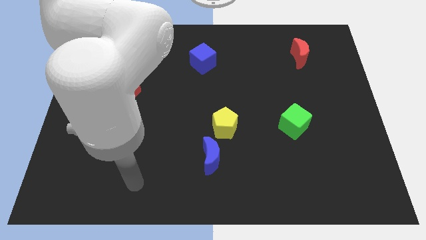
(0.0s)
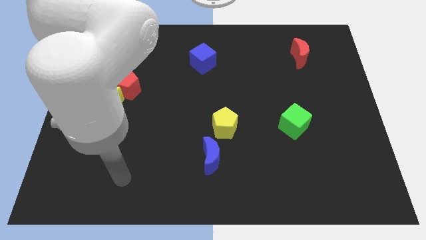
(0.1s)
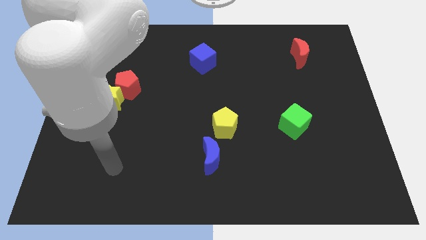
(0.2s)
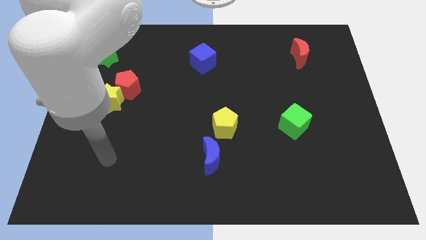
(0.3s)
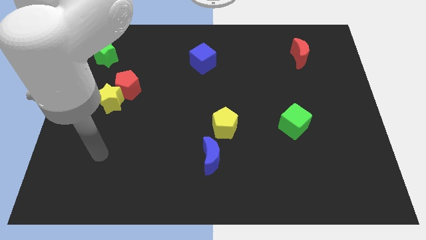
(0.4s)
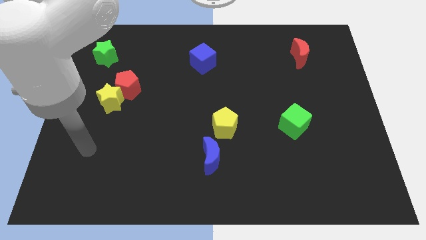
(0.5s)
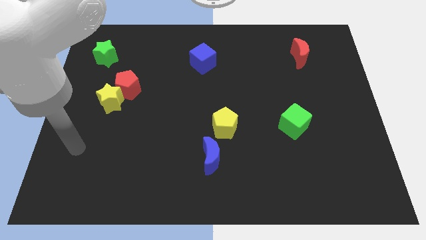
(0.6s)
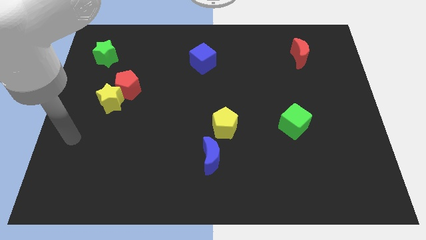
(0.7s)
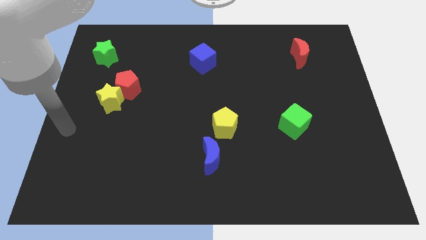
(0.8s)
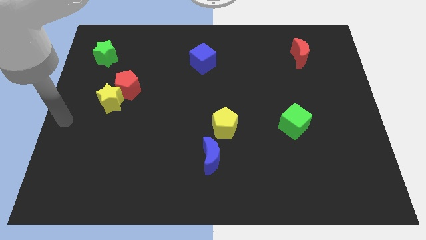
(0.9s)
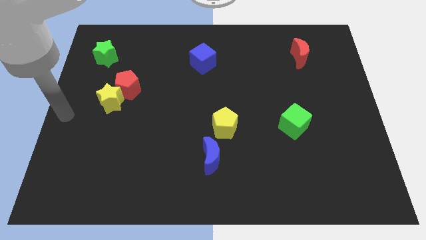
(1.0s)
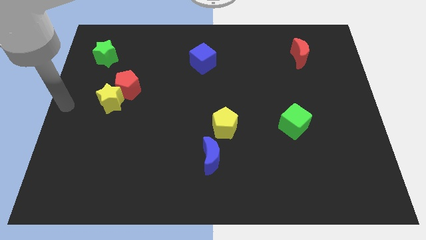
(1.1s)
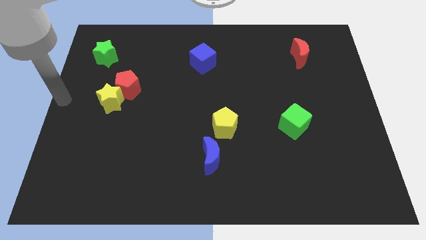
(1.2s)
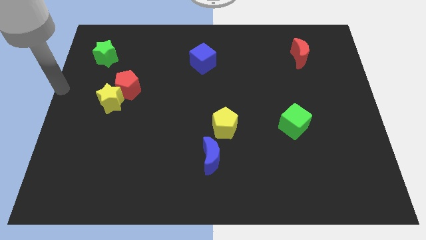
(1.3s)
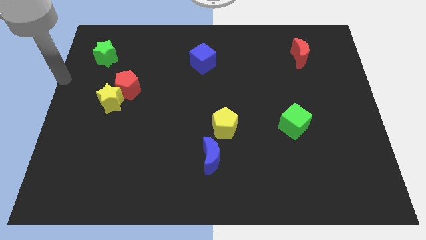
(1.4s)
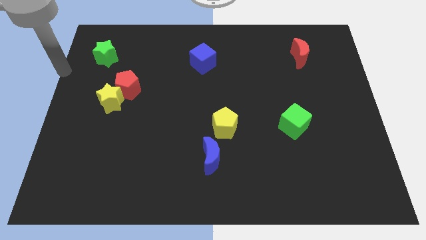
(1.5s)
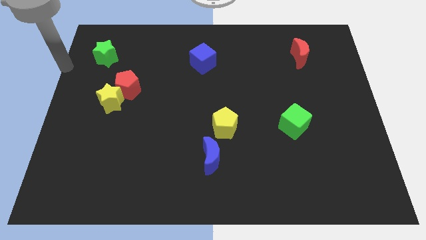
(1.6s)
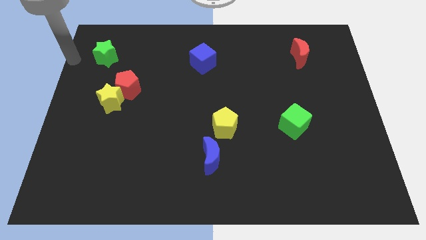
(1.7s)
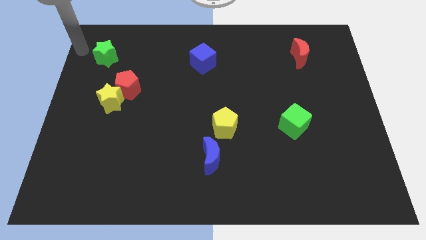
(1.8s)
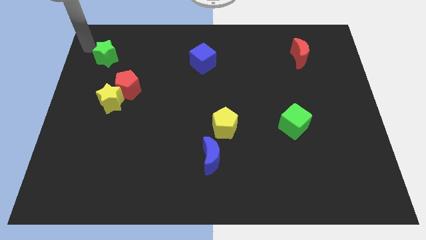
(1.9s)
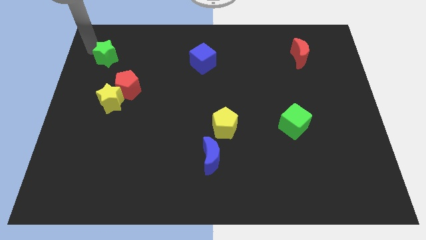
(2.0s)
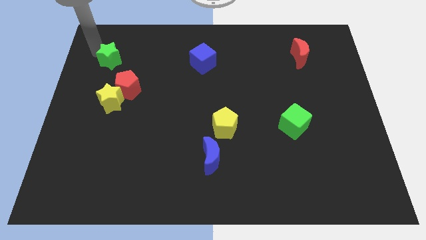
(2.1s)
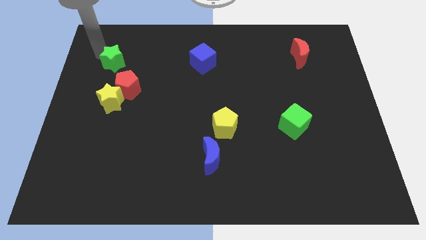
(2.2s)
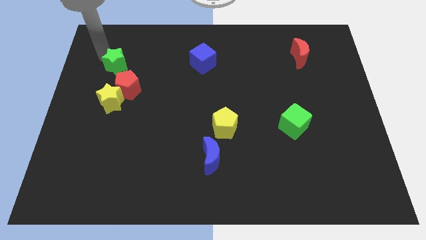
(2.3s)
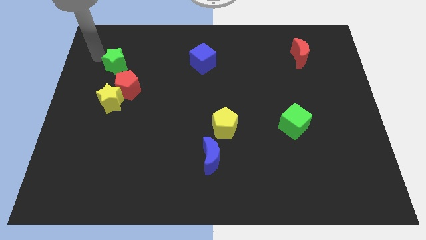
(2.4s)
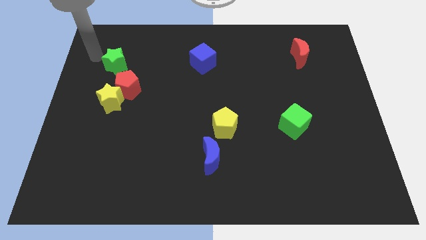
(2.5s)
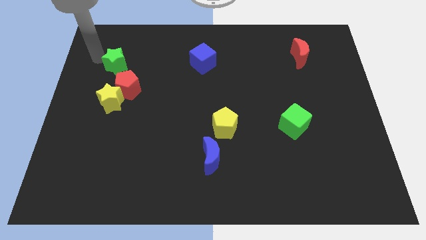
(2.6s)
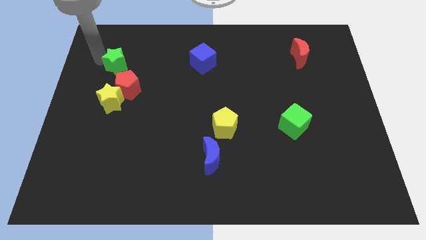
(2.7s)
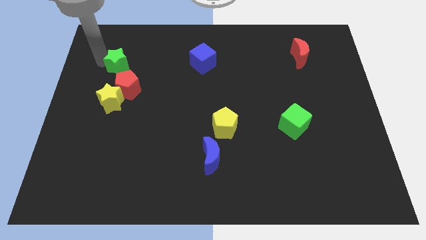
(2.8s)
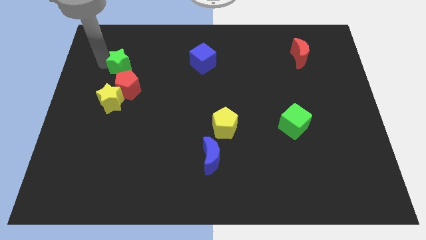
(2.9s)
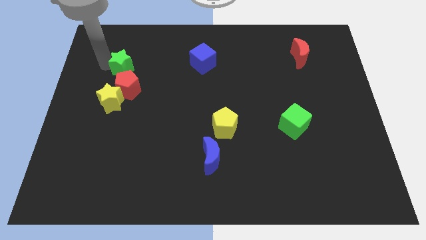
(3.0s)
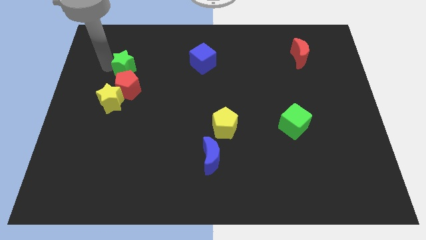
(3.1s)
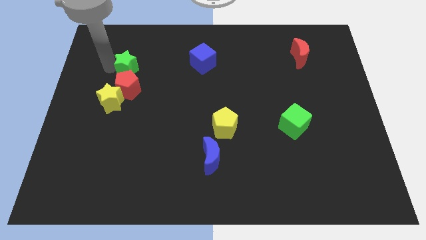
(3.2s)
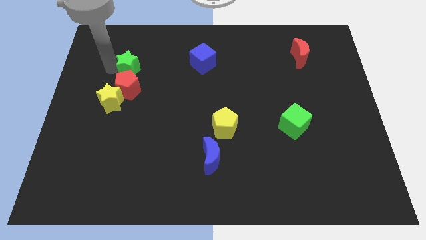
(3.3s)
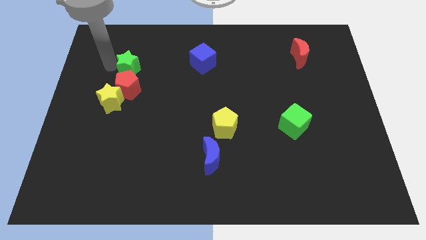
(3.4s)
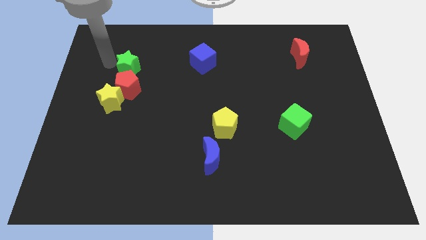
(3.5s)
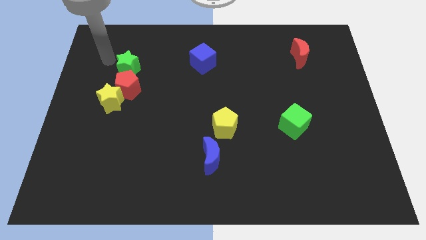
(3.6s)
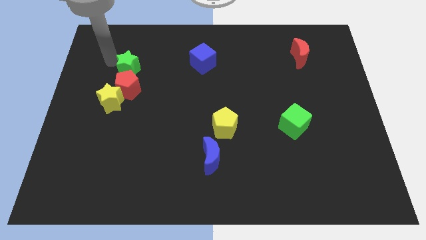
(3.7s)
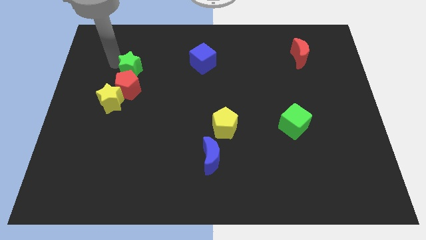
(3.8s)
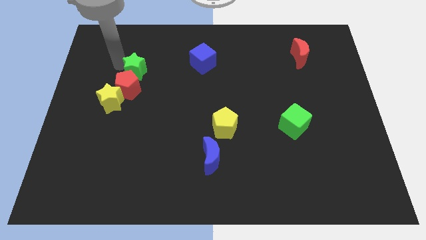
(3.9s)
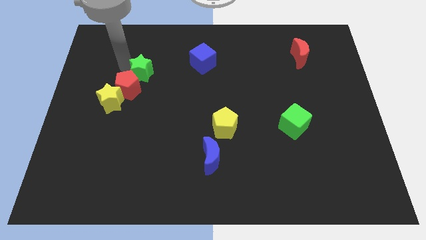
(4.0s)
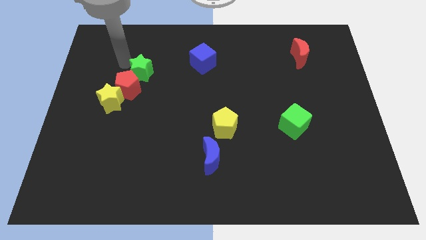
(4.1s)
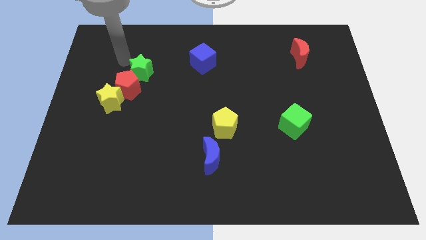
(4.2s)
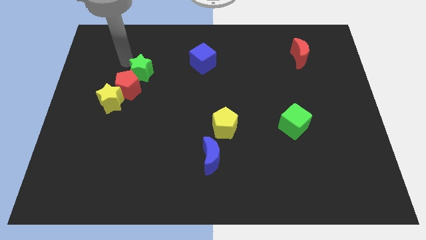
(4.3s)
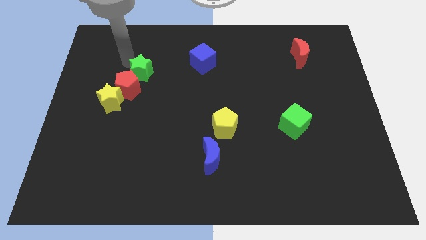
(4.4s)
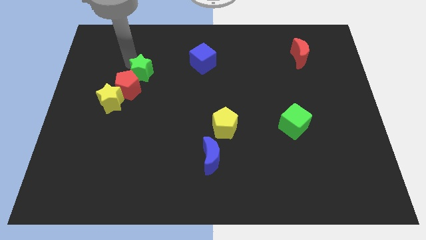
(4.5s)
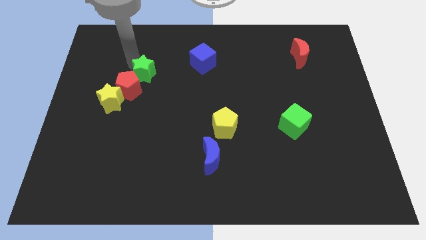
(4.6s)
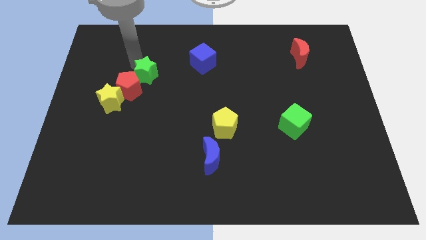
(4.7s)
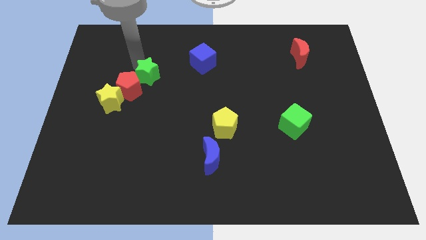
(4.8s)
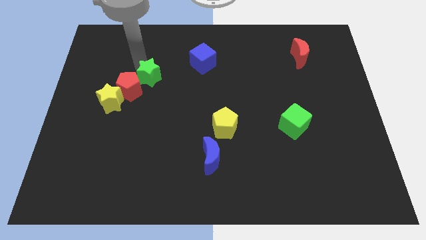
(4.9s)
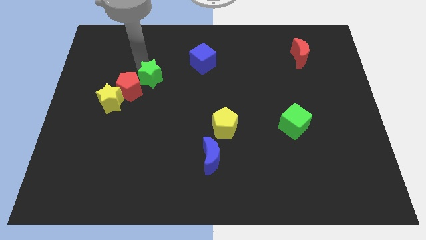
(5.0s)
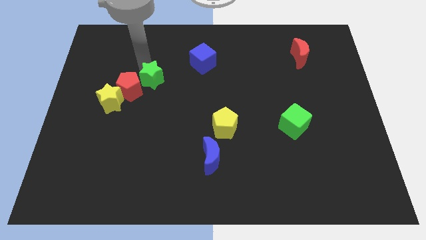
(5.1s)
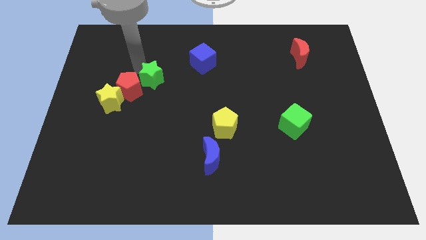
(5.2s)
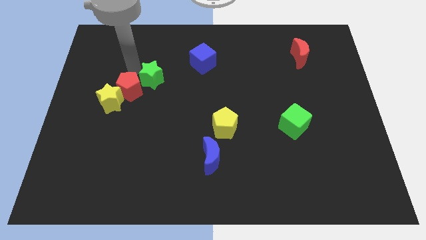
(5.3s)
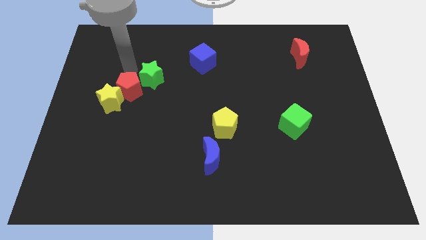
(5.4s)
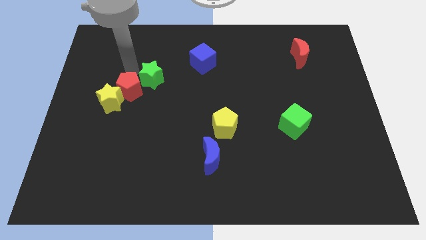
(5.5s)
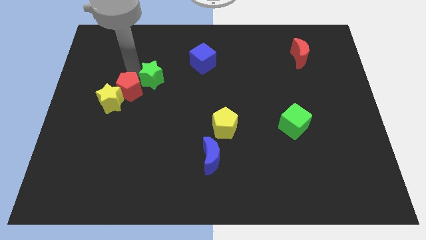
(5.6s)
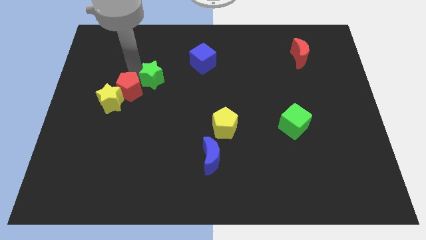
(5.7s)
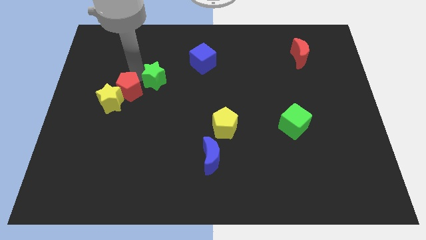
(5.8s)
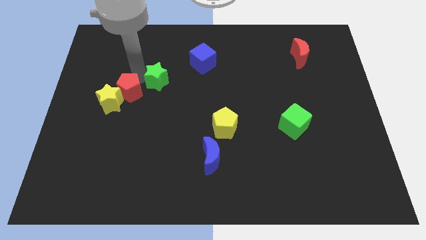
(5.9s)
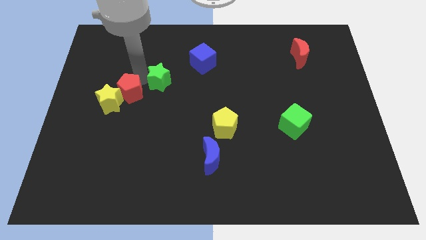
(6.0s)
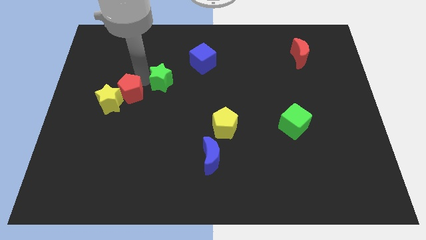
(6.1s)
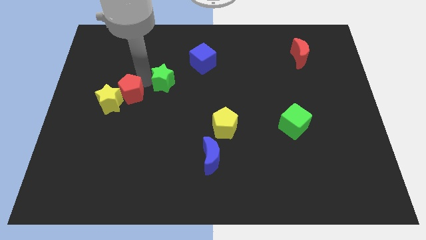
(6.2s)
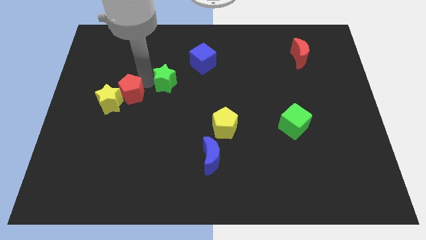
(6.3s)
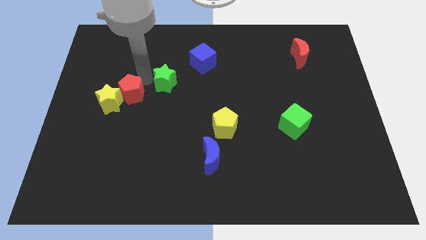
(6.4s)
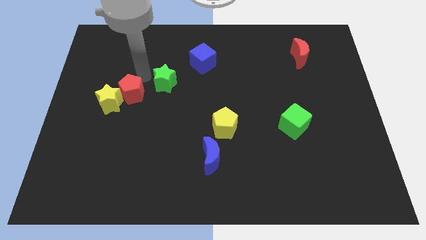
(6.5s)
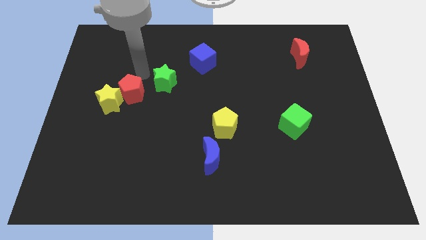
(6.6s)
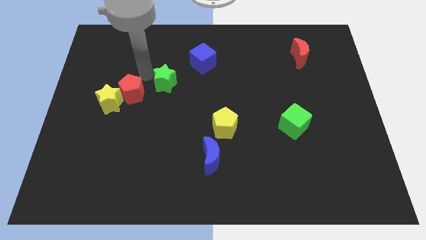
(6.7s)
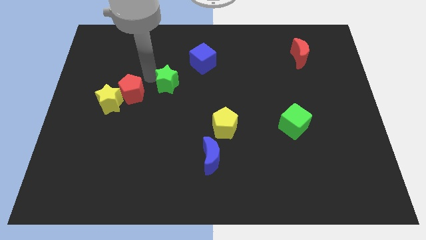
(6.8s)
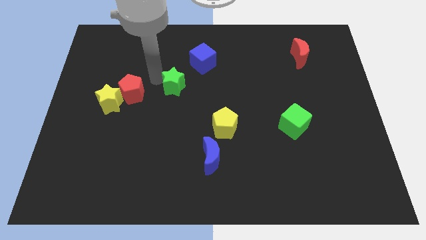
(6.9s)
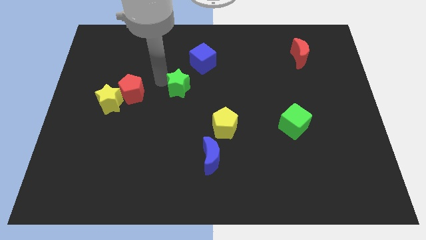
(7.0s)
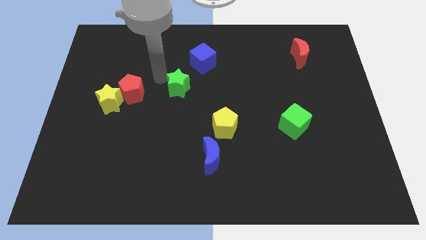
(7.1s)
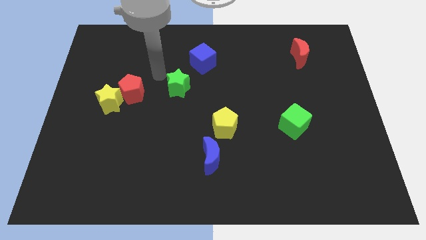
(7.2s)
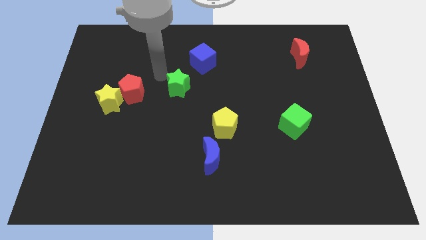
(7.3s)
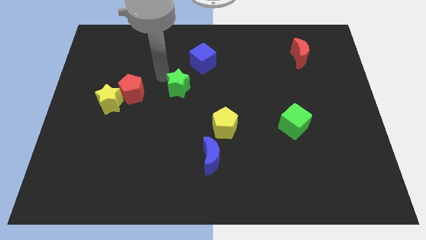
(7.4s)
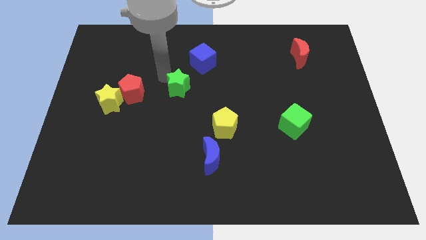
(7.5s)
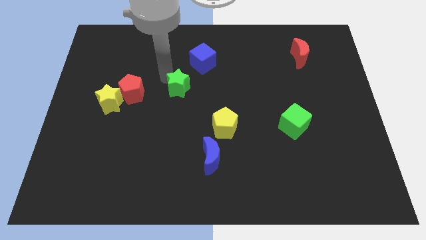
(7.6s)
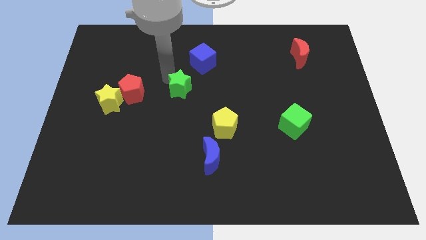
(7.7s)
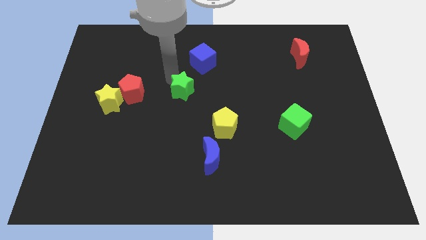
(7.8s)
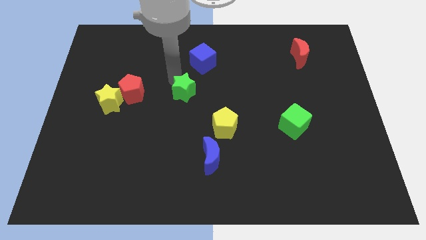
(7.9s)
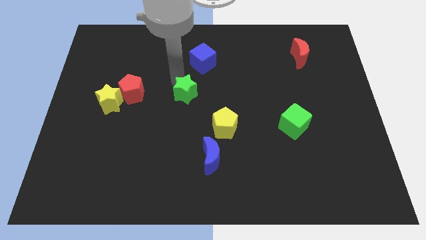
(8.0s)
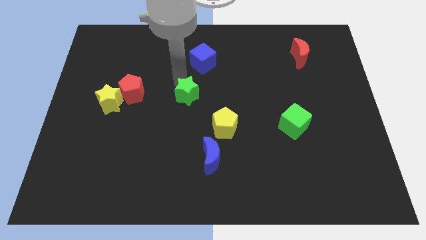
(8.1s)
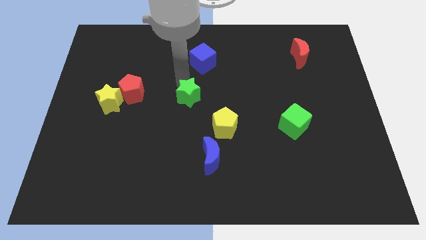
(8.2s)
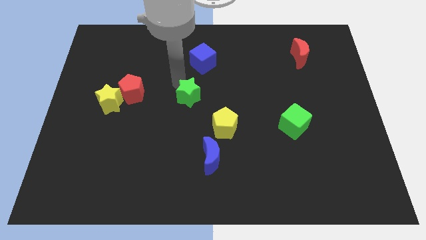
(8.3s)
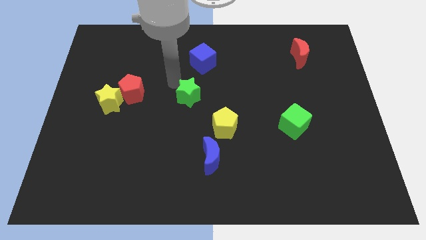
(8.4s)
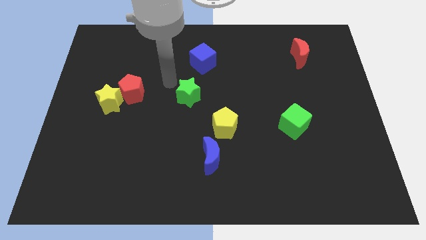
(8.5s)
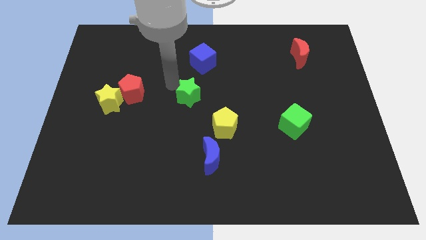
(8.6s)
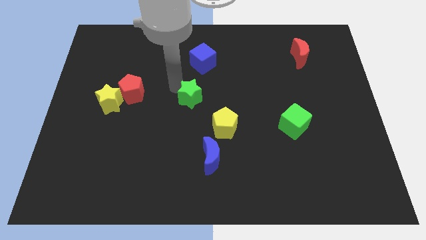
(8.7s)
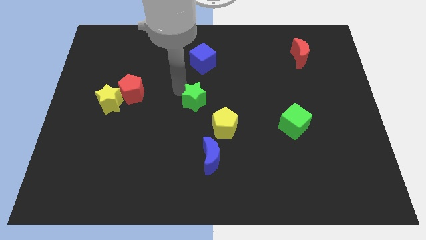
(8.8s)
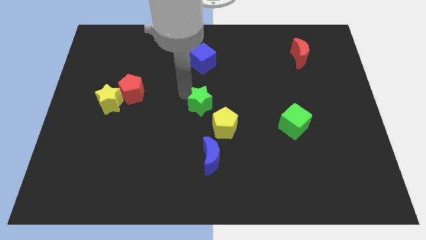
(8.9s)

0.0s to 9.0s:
push the green star to the top side of the blue moon
